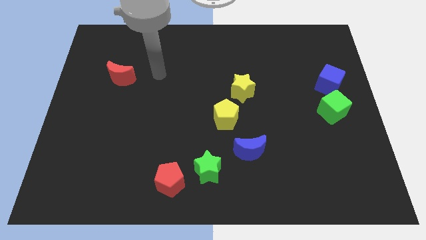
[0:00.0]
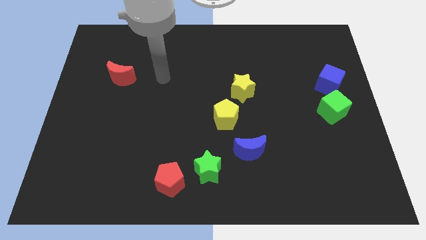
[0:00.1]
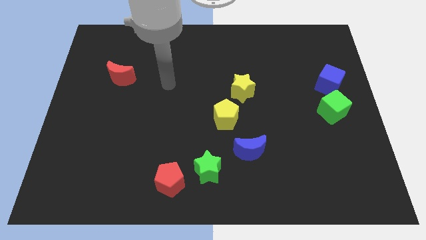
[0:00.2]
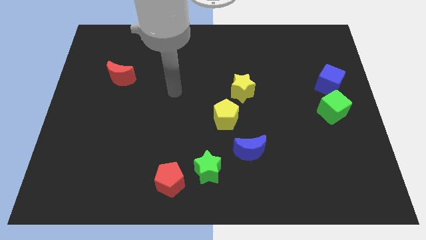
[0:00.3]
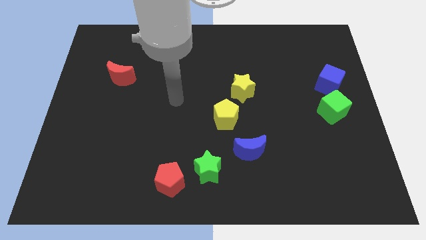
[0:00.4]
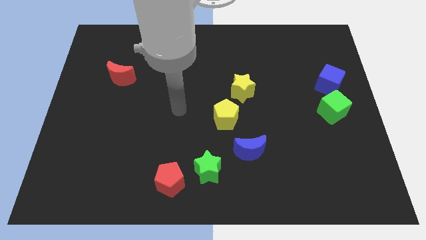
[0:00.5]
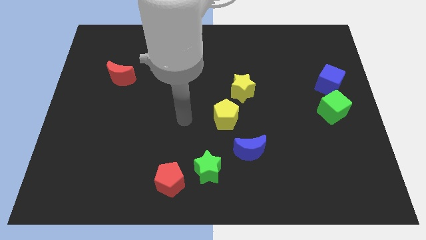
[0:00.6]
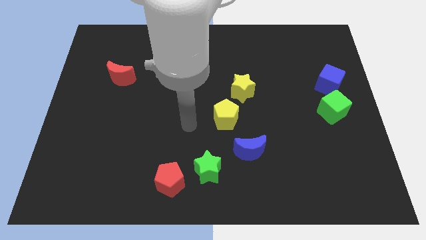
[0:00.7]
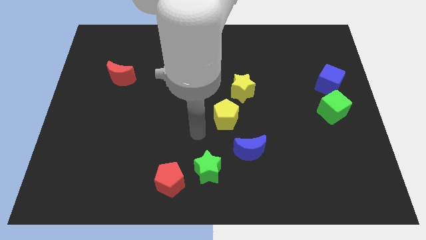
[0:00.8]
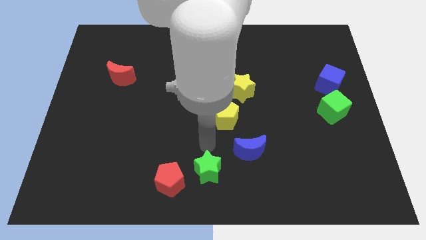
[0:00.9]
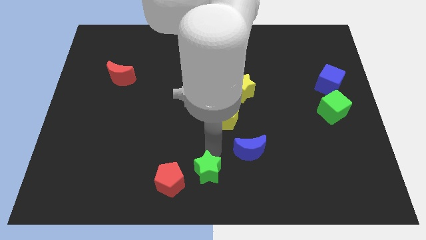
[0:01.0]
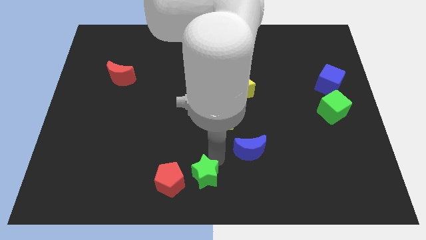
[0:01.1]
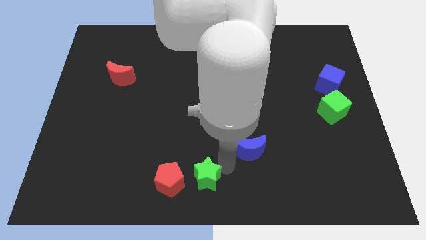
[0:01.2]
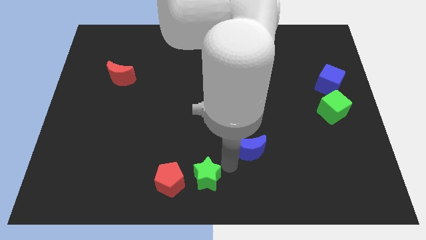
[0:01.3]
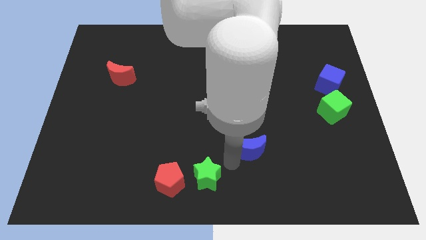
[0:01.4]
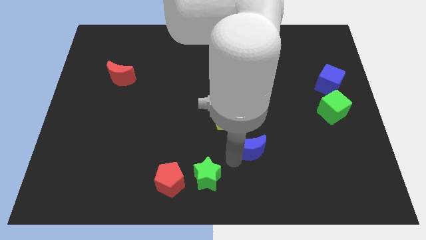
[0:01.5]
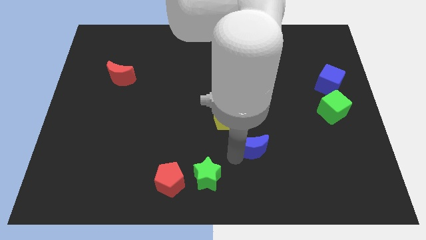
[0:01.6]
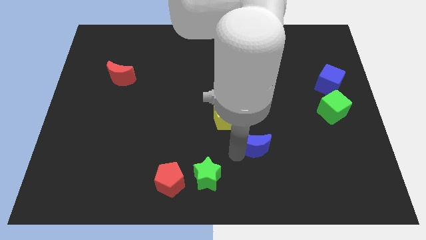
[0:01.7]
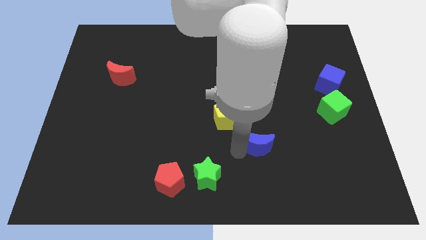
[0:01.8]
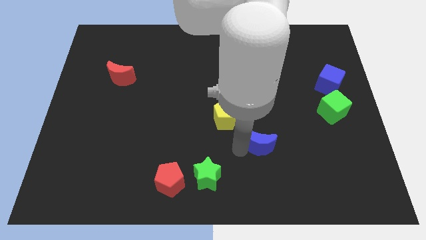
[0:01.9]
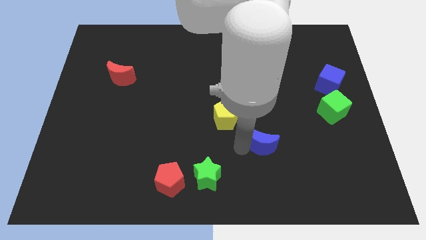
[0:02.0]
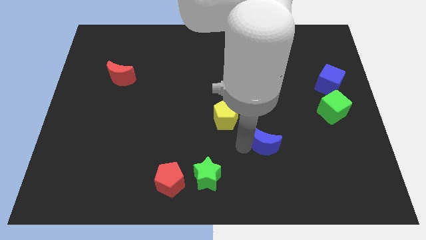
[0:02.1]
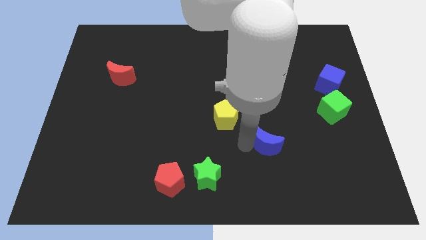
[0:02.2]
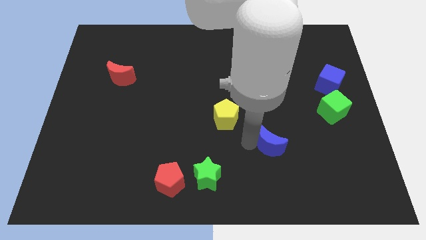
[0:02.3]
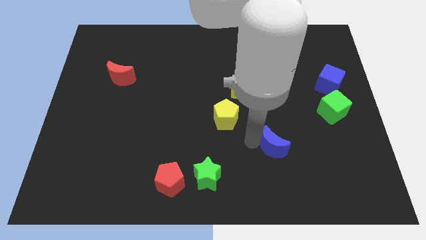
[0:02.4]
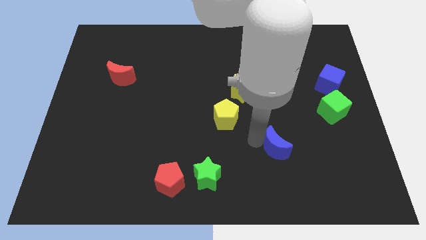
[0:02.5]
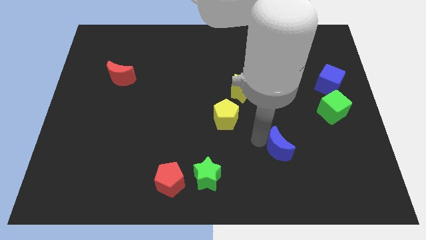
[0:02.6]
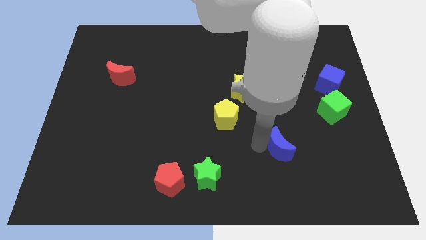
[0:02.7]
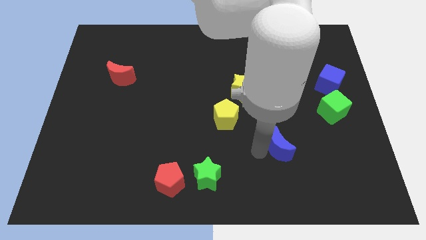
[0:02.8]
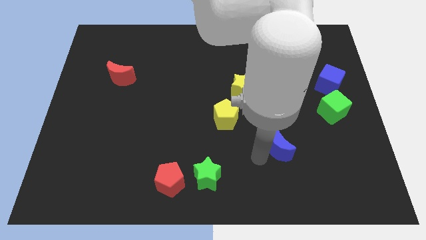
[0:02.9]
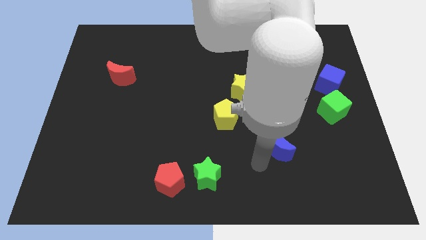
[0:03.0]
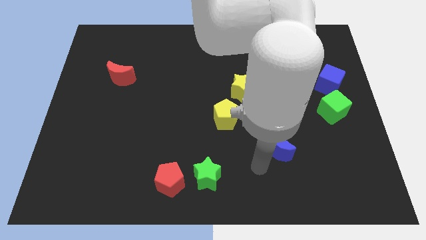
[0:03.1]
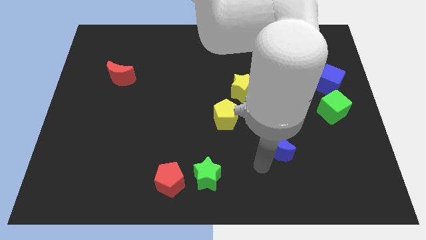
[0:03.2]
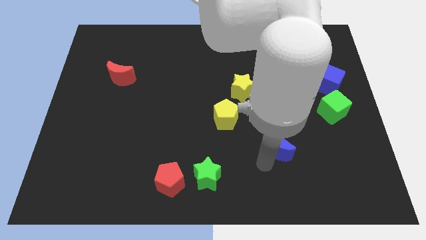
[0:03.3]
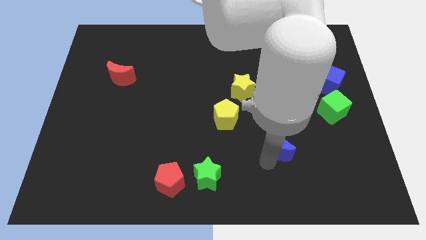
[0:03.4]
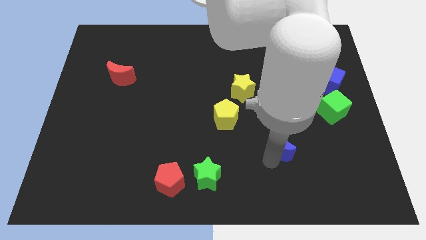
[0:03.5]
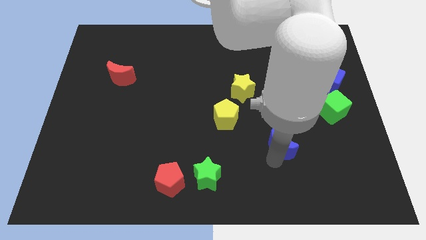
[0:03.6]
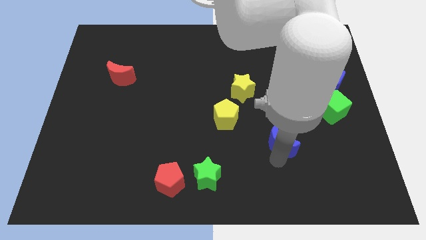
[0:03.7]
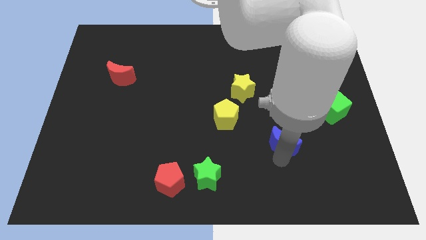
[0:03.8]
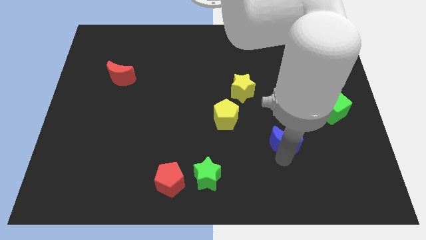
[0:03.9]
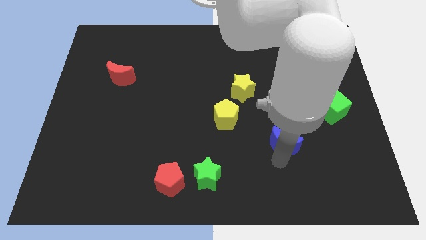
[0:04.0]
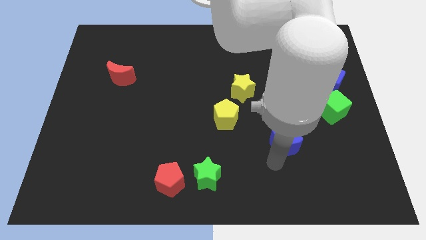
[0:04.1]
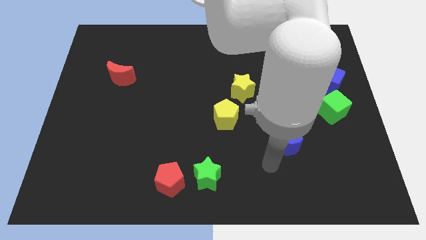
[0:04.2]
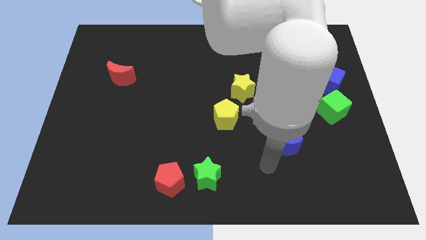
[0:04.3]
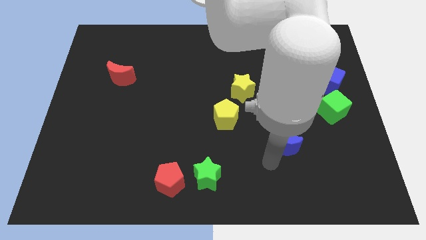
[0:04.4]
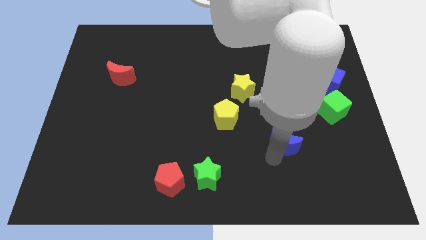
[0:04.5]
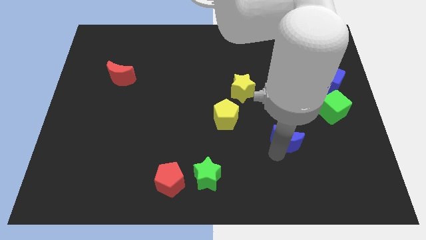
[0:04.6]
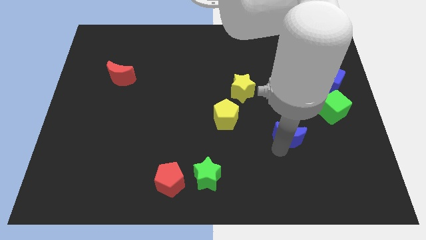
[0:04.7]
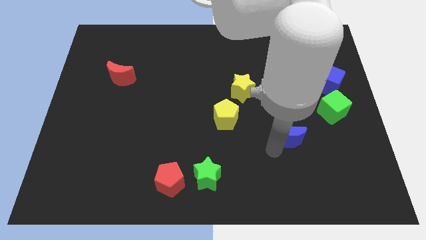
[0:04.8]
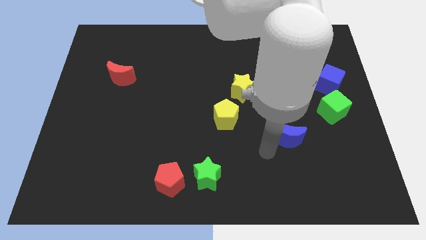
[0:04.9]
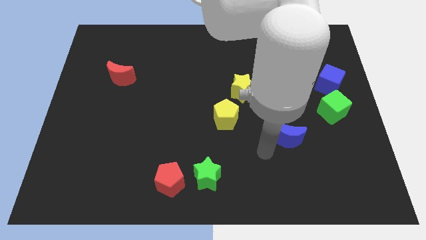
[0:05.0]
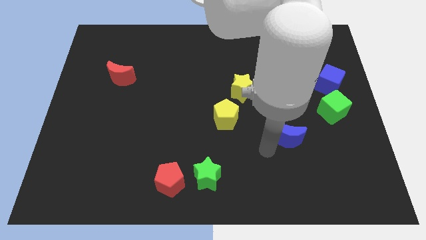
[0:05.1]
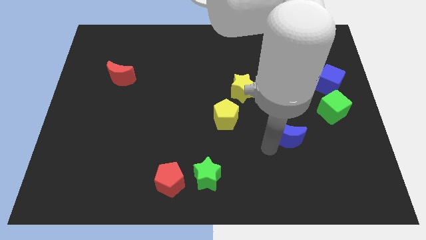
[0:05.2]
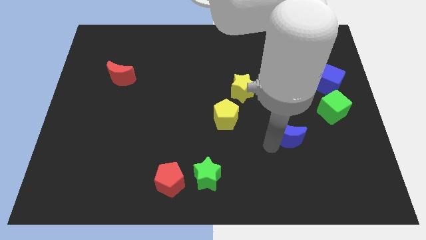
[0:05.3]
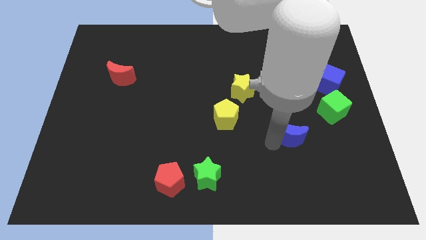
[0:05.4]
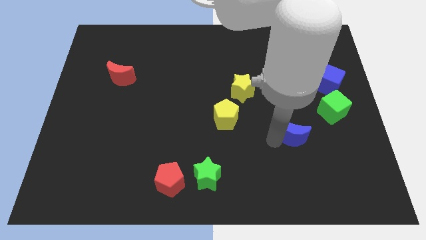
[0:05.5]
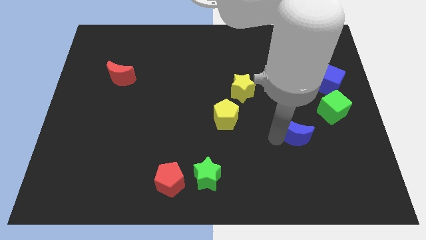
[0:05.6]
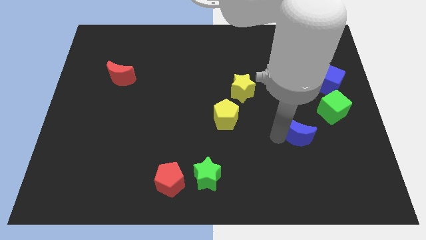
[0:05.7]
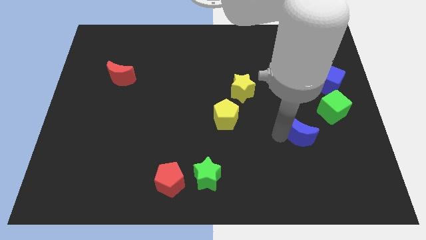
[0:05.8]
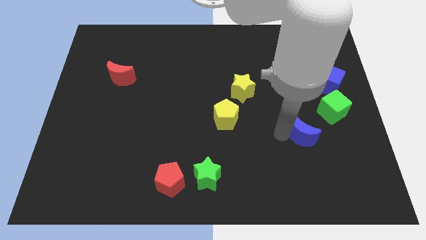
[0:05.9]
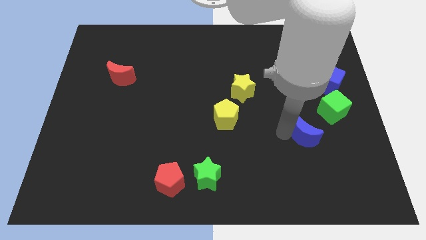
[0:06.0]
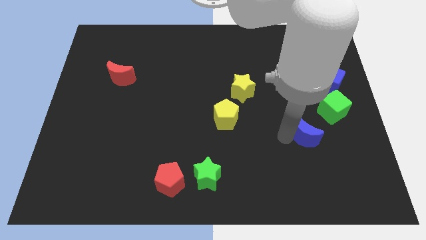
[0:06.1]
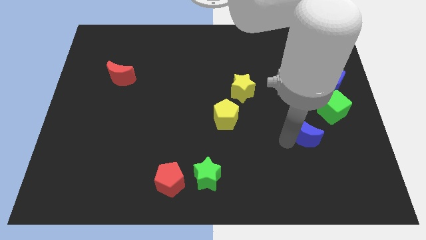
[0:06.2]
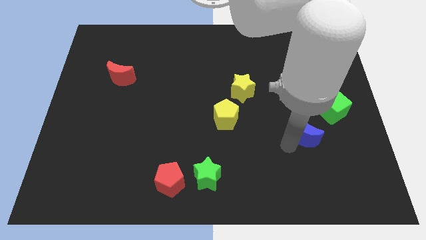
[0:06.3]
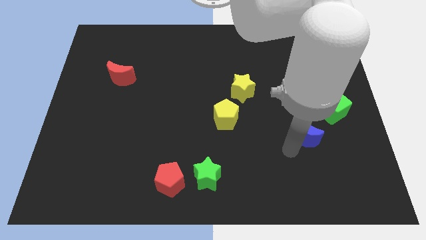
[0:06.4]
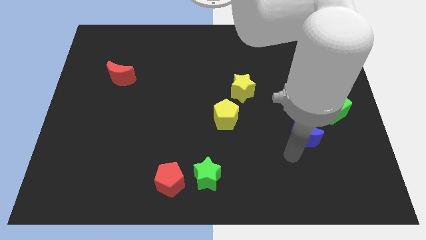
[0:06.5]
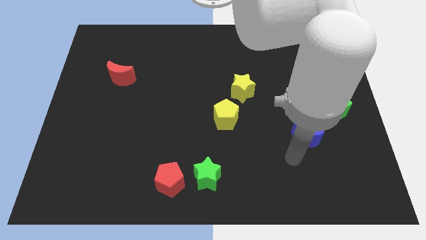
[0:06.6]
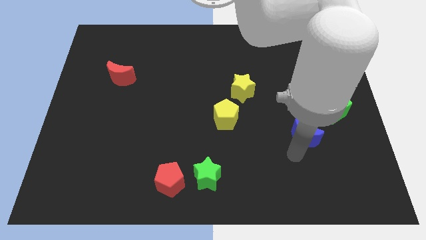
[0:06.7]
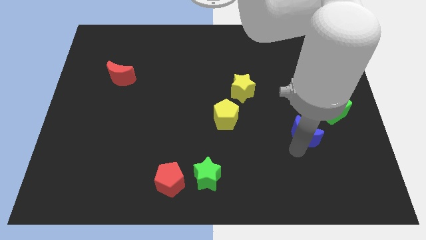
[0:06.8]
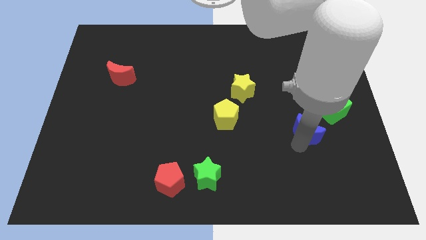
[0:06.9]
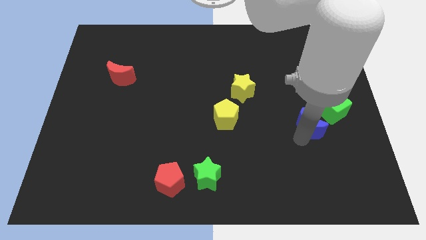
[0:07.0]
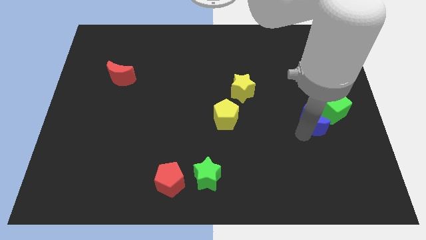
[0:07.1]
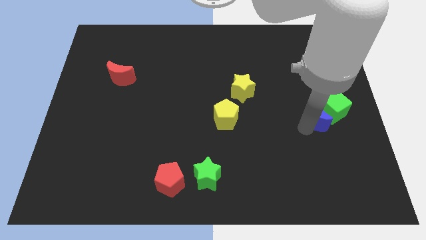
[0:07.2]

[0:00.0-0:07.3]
slide the blue moon close to the green cube
